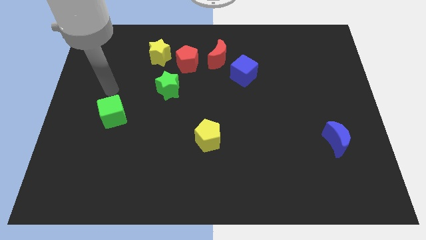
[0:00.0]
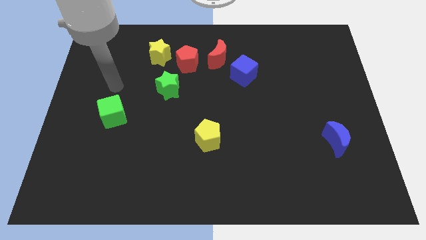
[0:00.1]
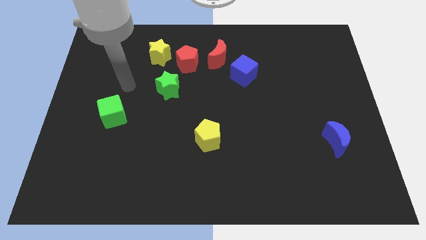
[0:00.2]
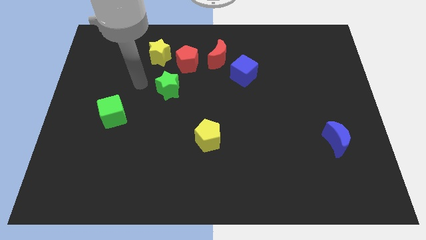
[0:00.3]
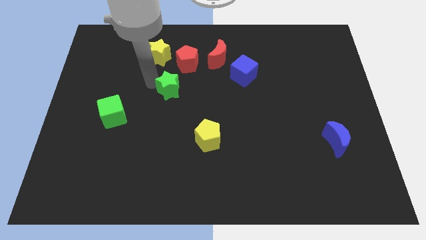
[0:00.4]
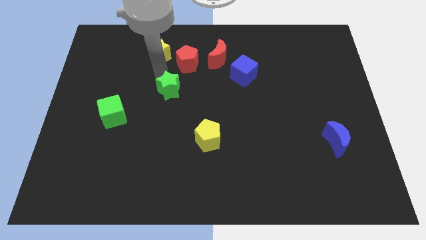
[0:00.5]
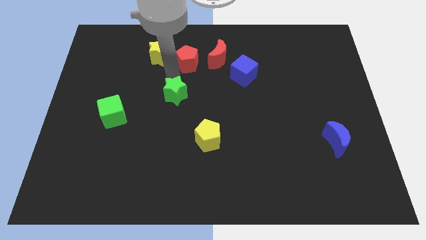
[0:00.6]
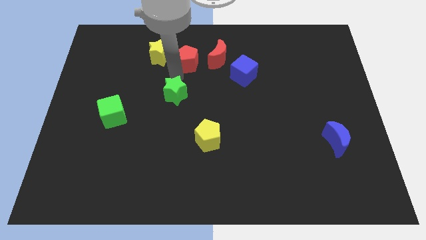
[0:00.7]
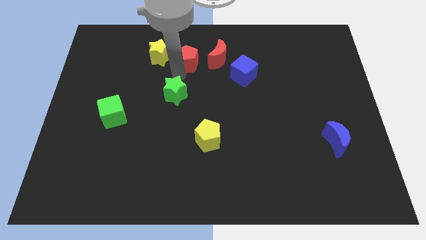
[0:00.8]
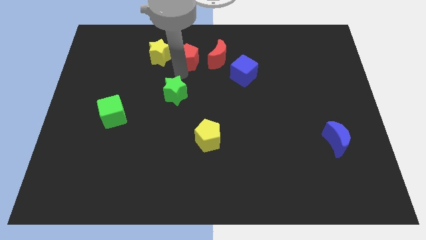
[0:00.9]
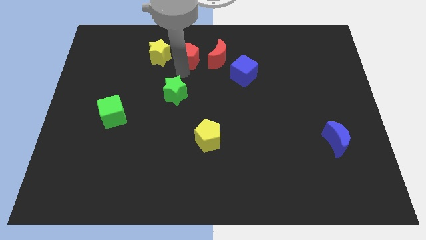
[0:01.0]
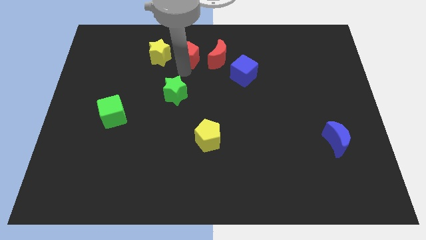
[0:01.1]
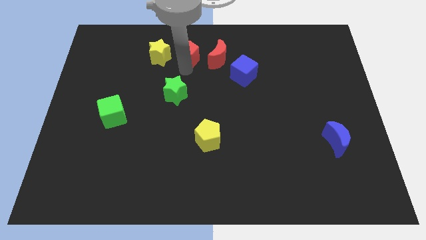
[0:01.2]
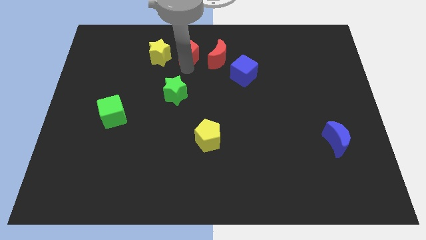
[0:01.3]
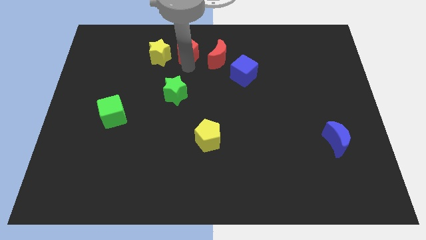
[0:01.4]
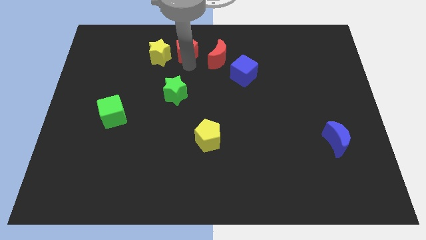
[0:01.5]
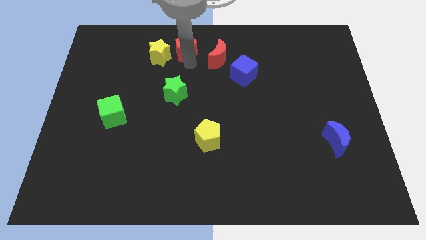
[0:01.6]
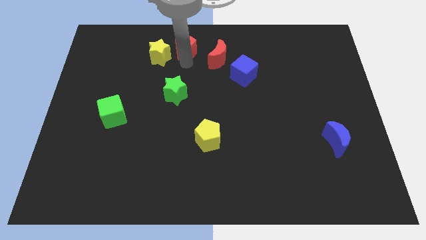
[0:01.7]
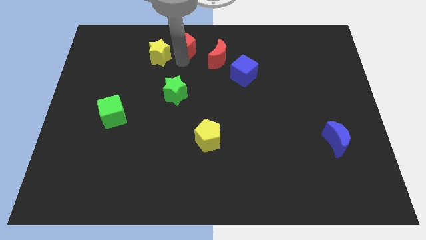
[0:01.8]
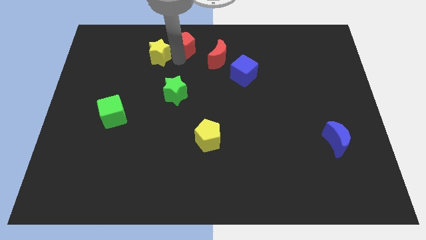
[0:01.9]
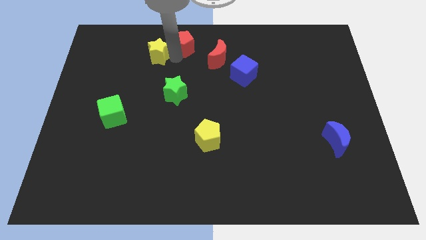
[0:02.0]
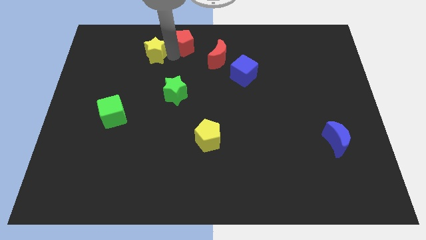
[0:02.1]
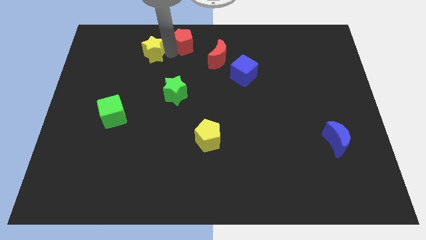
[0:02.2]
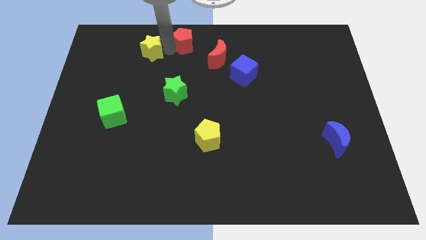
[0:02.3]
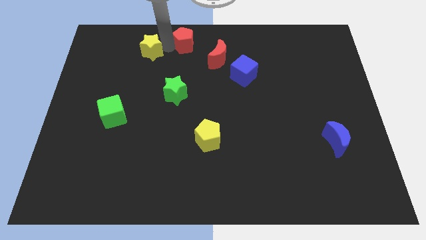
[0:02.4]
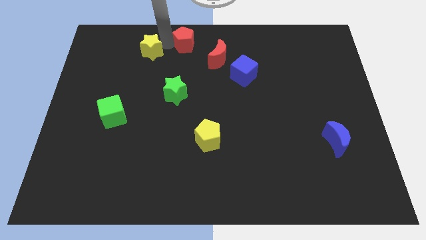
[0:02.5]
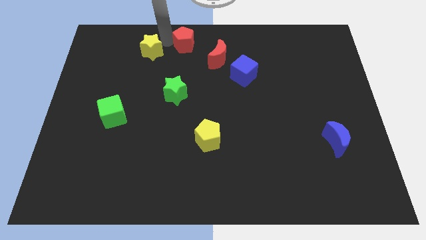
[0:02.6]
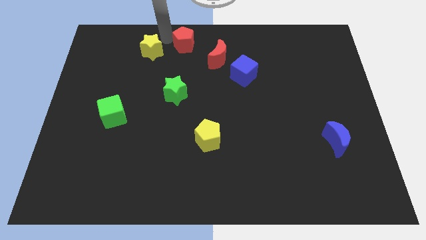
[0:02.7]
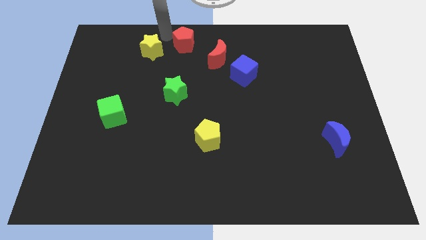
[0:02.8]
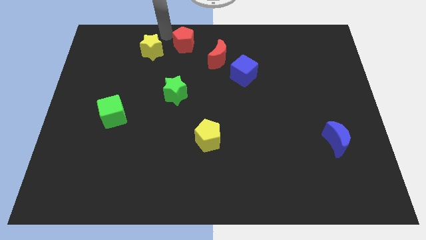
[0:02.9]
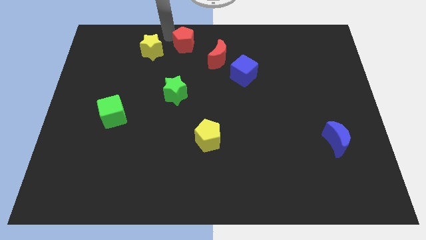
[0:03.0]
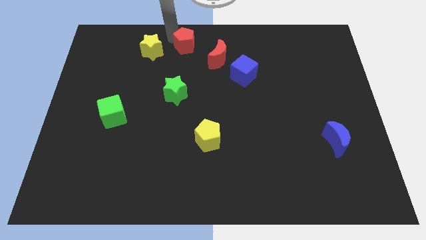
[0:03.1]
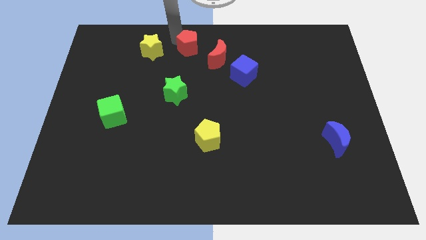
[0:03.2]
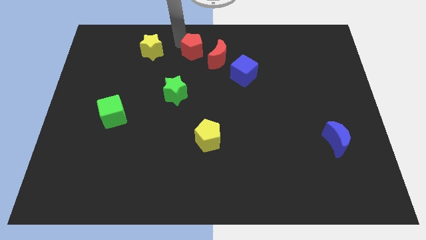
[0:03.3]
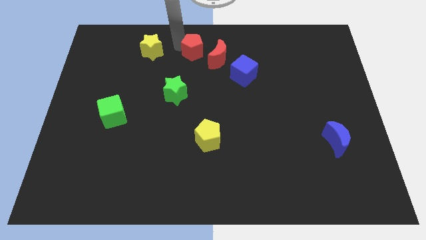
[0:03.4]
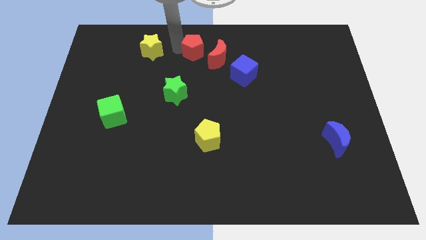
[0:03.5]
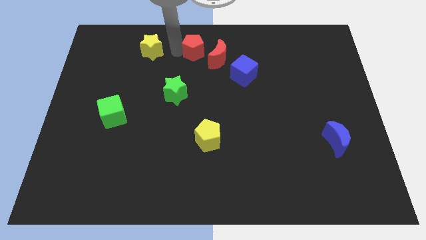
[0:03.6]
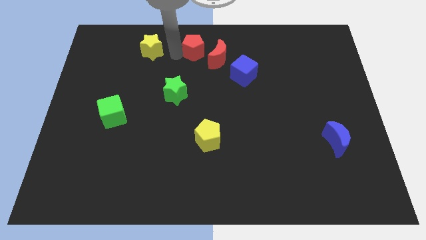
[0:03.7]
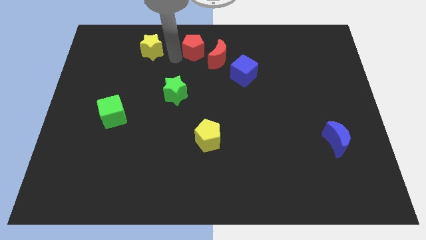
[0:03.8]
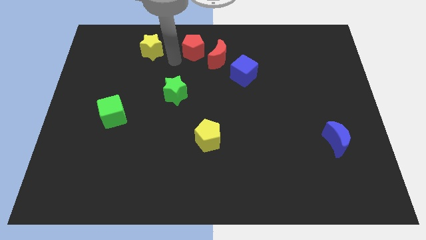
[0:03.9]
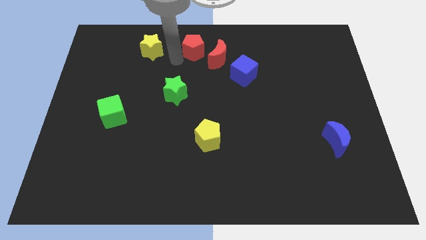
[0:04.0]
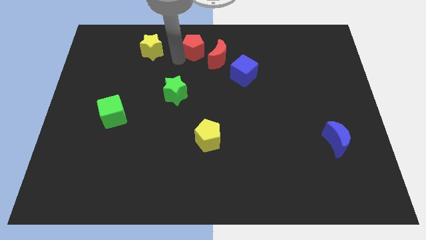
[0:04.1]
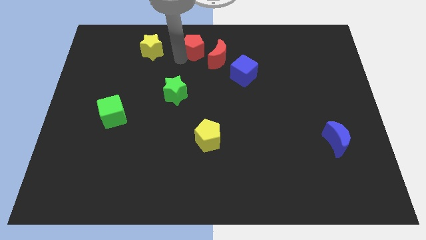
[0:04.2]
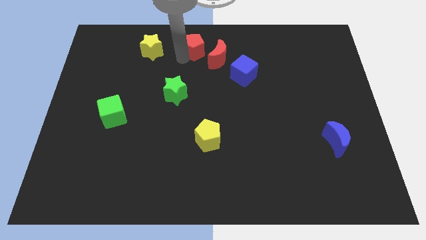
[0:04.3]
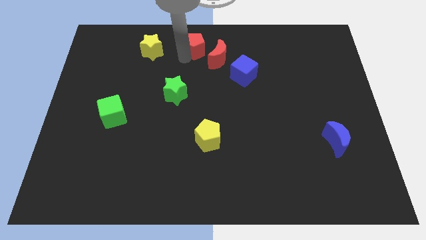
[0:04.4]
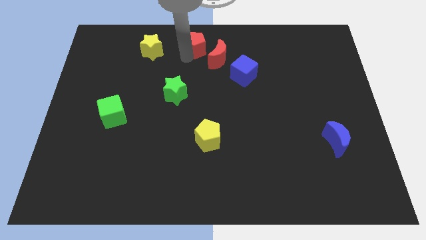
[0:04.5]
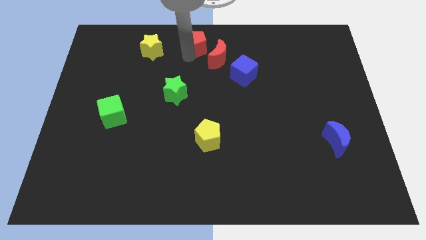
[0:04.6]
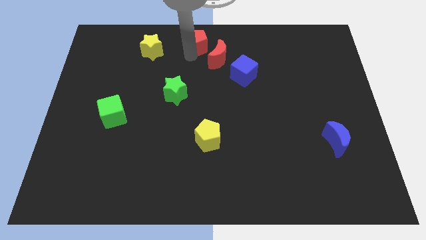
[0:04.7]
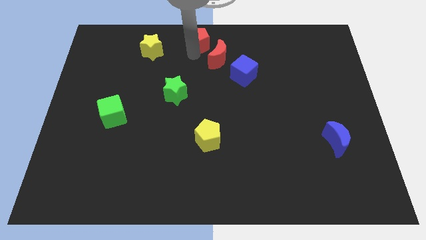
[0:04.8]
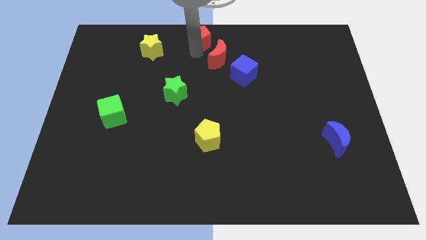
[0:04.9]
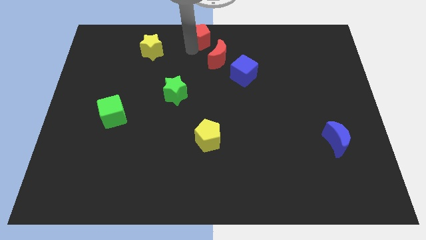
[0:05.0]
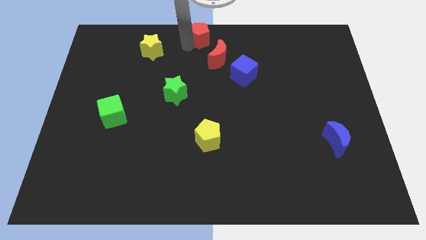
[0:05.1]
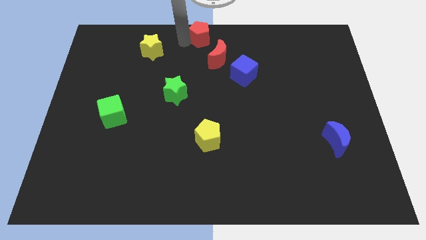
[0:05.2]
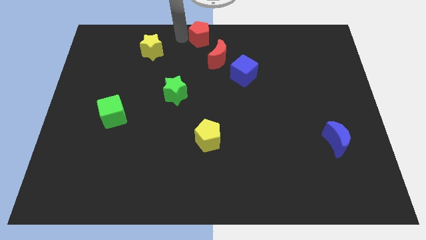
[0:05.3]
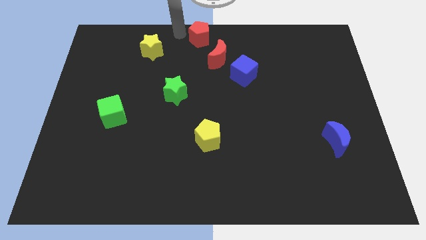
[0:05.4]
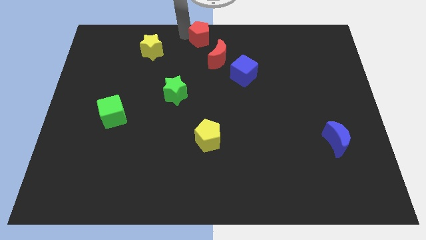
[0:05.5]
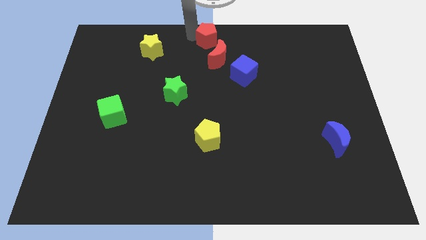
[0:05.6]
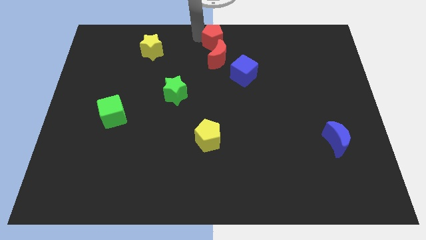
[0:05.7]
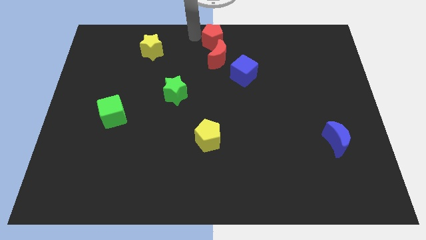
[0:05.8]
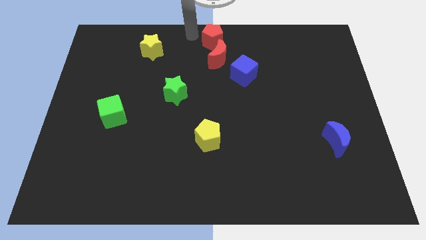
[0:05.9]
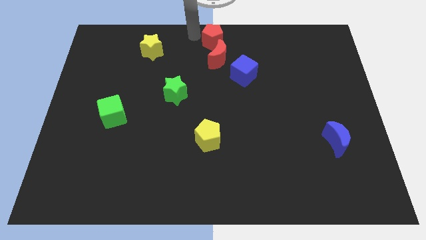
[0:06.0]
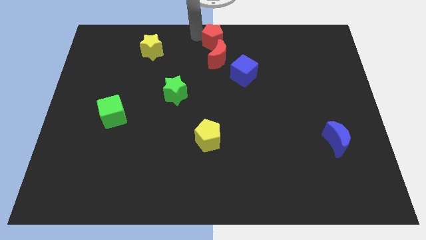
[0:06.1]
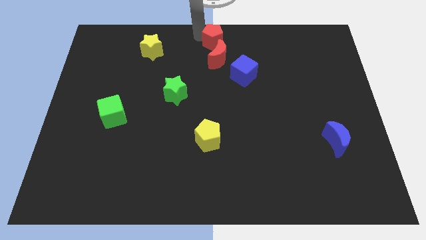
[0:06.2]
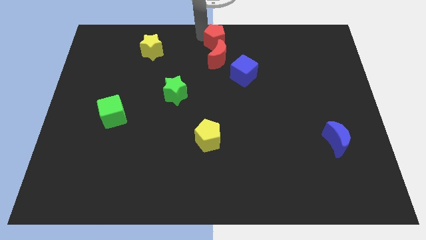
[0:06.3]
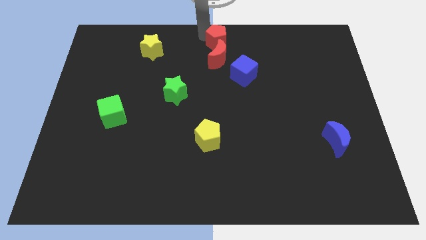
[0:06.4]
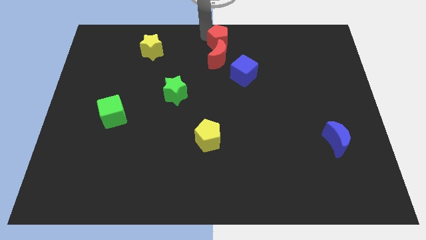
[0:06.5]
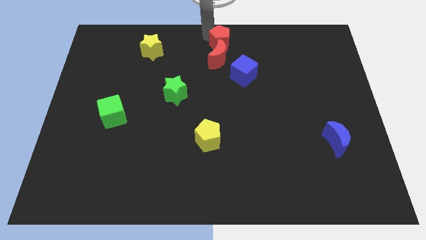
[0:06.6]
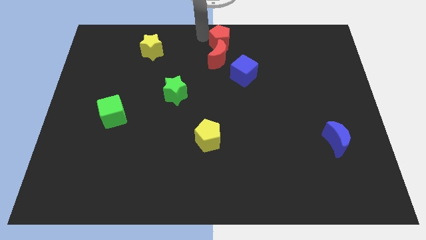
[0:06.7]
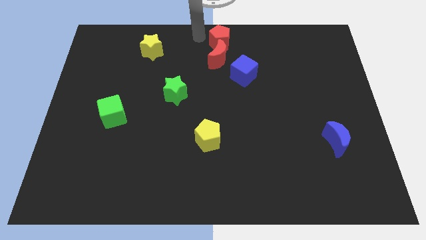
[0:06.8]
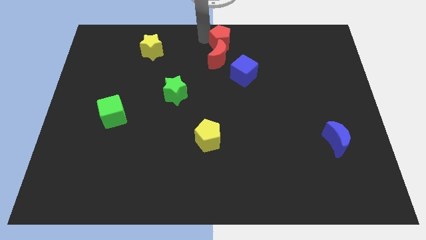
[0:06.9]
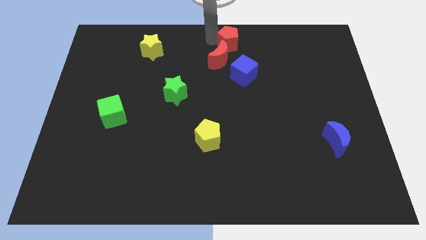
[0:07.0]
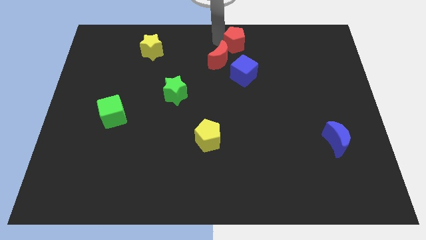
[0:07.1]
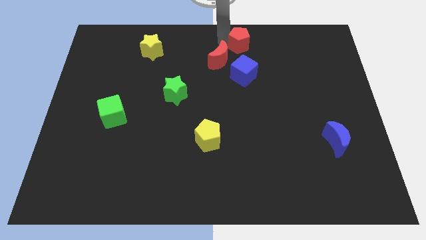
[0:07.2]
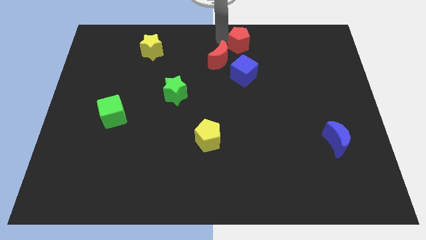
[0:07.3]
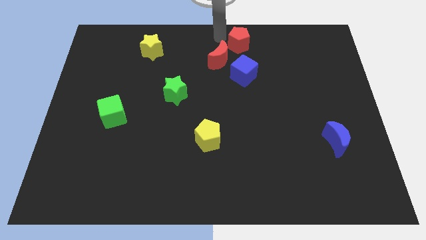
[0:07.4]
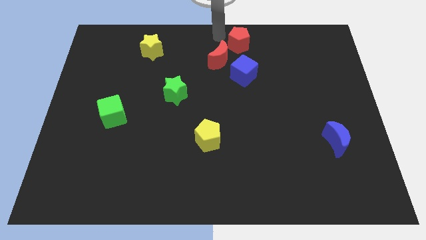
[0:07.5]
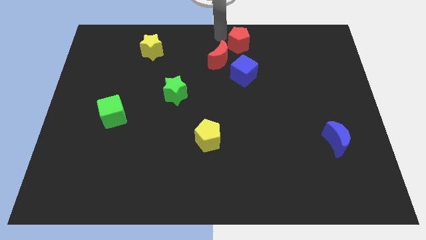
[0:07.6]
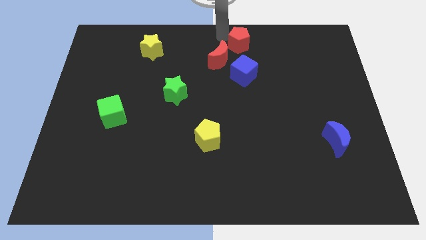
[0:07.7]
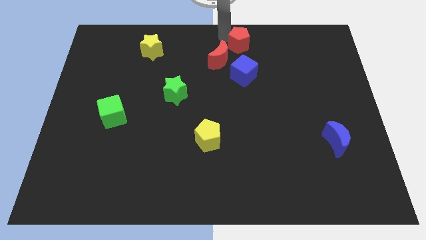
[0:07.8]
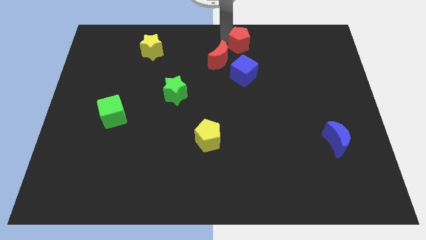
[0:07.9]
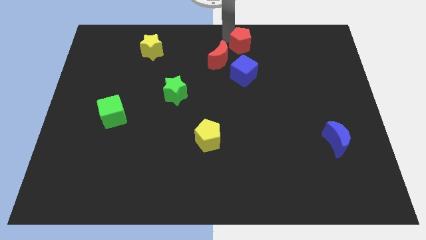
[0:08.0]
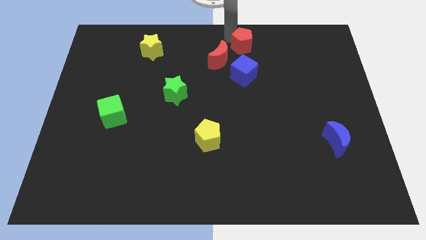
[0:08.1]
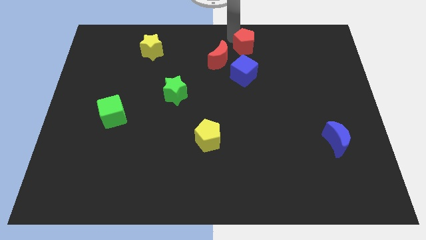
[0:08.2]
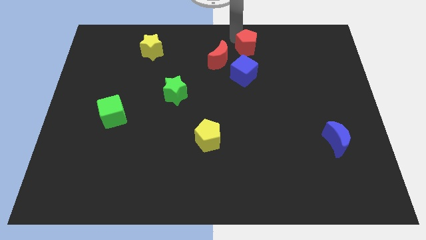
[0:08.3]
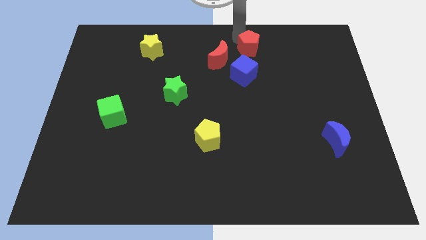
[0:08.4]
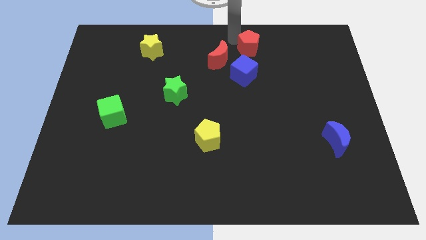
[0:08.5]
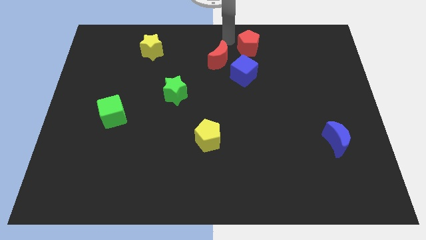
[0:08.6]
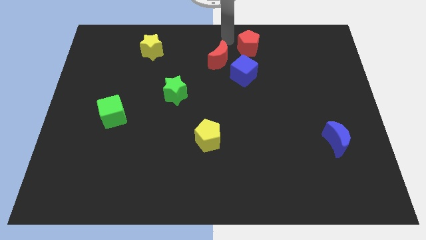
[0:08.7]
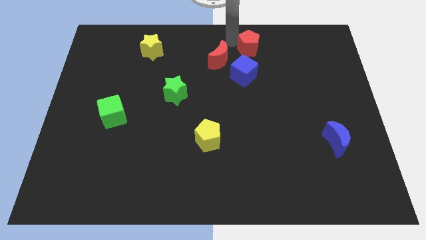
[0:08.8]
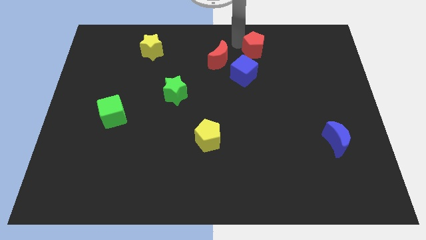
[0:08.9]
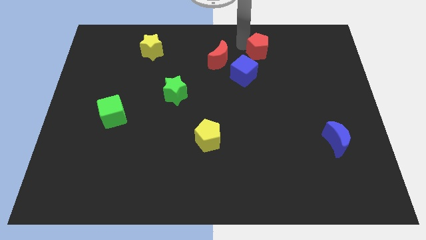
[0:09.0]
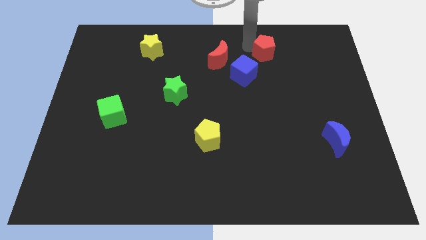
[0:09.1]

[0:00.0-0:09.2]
push the red pentagon to the right
